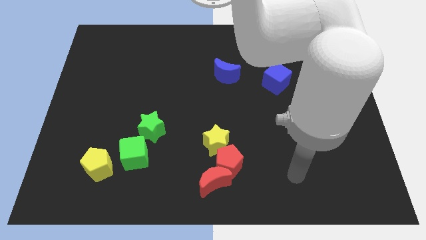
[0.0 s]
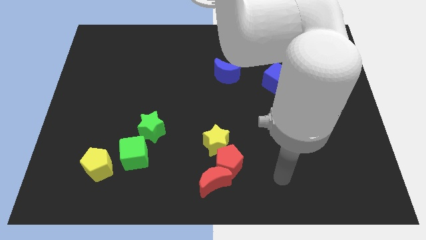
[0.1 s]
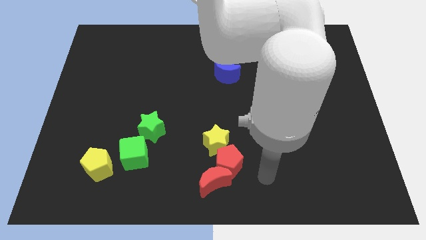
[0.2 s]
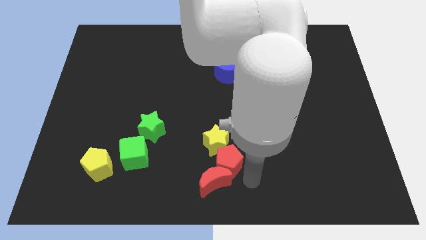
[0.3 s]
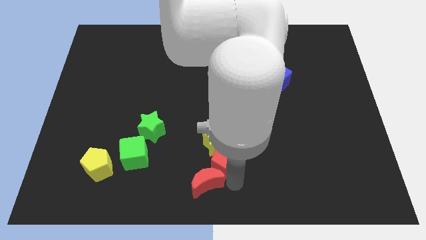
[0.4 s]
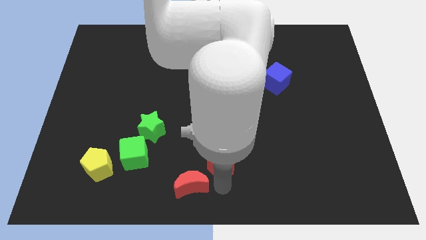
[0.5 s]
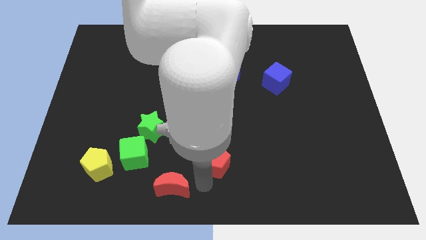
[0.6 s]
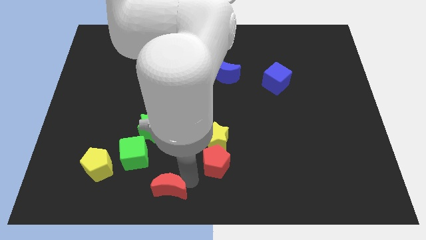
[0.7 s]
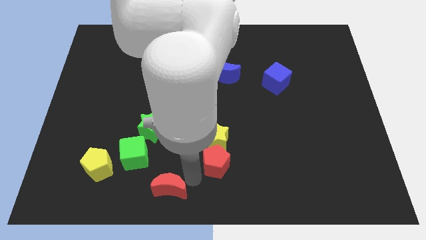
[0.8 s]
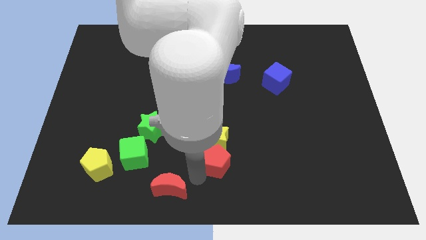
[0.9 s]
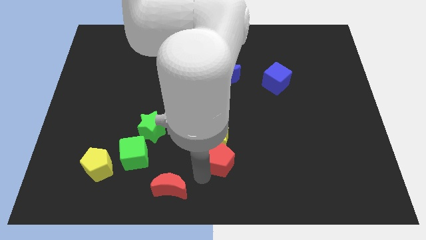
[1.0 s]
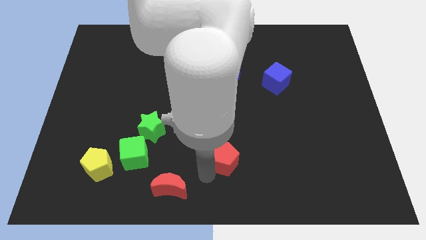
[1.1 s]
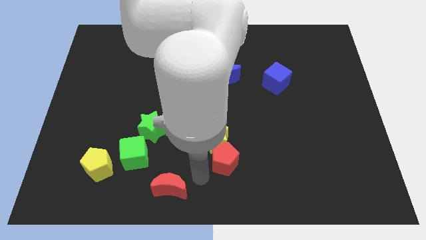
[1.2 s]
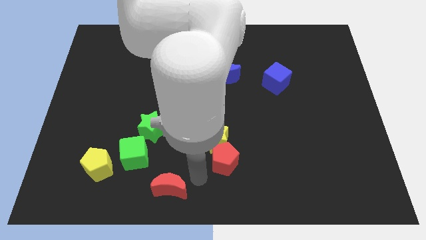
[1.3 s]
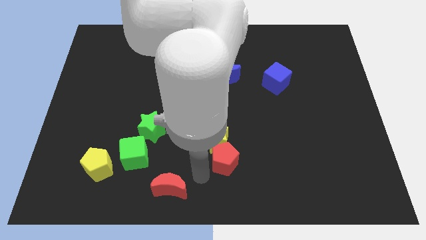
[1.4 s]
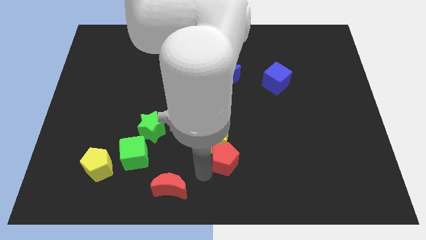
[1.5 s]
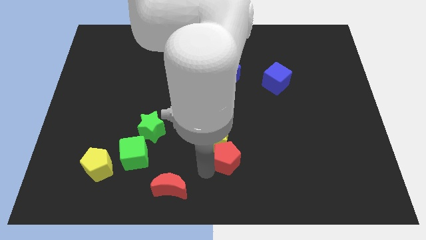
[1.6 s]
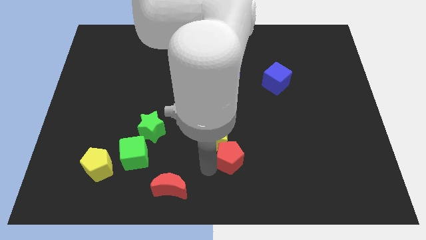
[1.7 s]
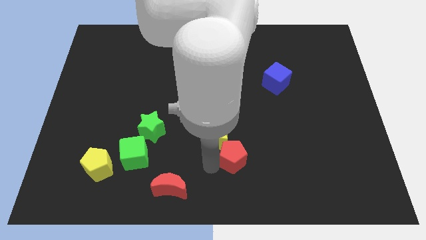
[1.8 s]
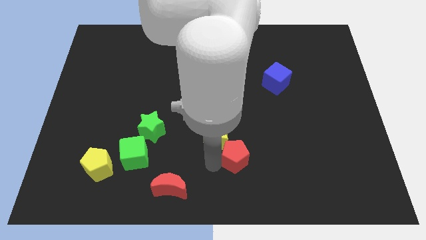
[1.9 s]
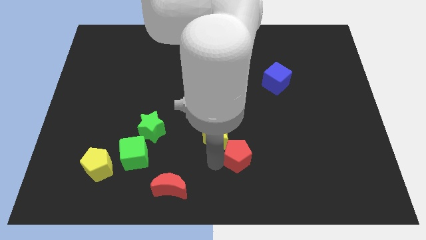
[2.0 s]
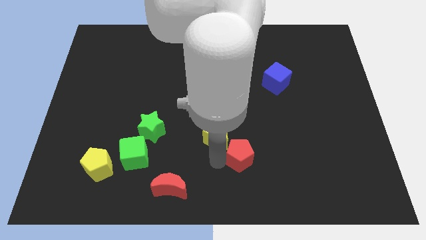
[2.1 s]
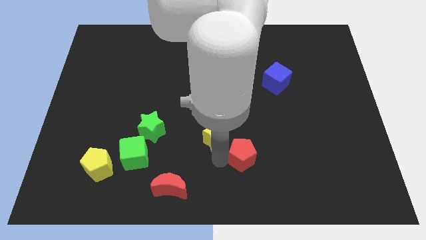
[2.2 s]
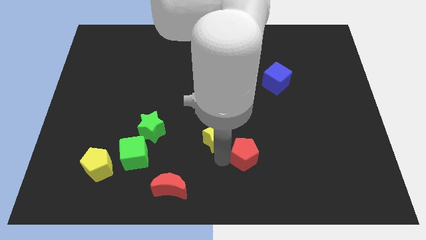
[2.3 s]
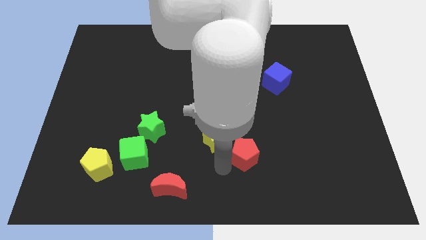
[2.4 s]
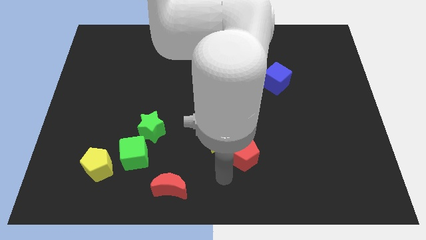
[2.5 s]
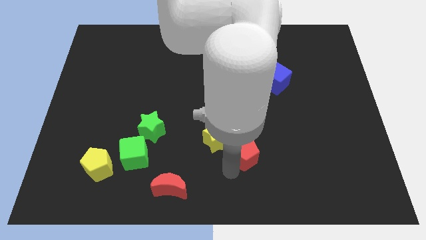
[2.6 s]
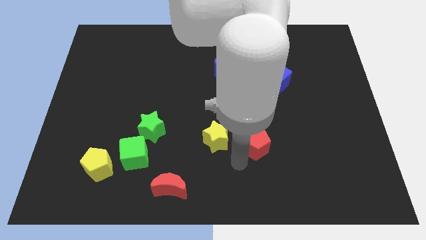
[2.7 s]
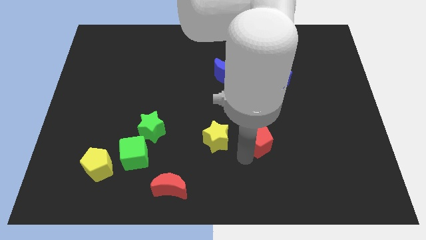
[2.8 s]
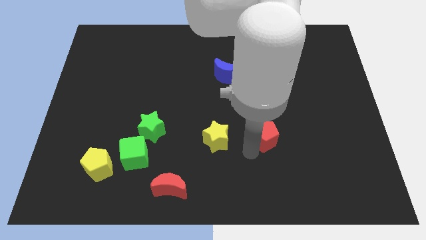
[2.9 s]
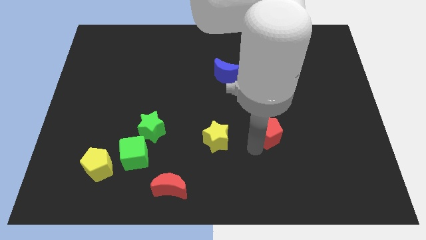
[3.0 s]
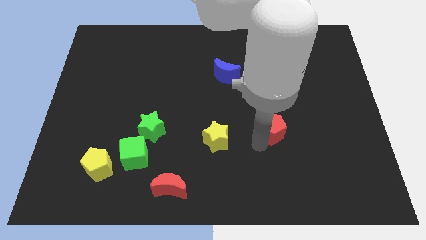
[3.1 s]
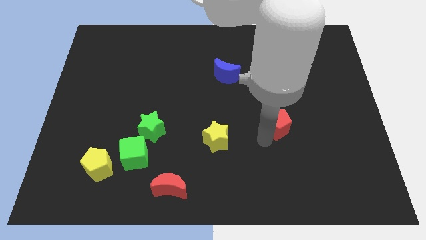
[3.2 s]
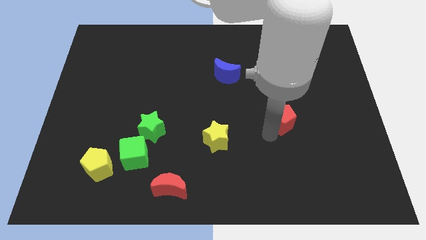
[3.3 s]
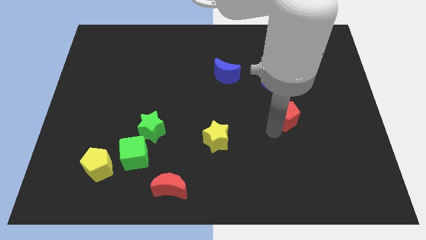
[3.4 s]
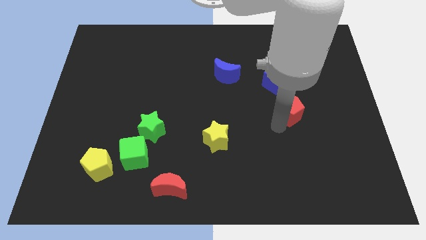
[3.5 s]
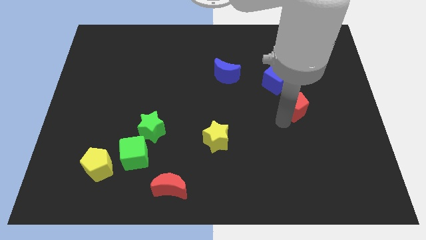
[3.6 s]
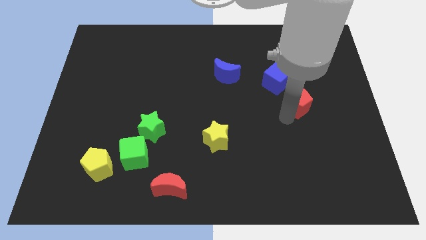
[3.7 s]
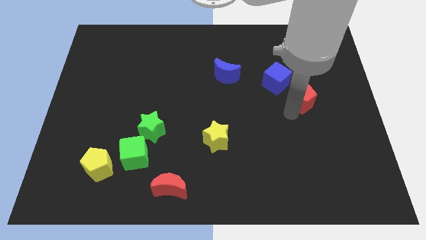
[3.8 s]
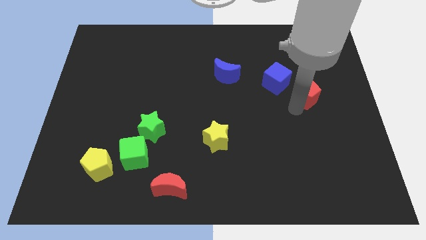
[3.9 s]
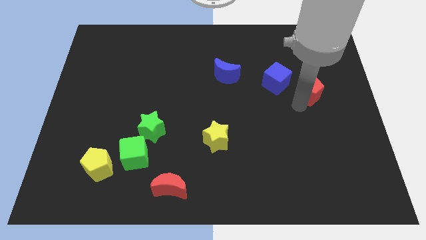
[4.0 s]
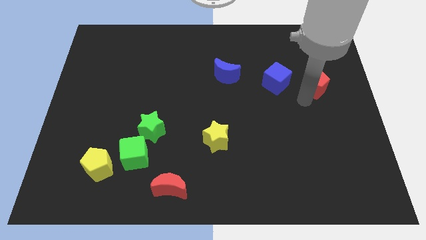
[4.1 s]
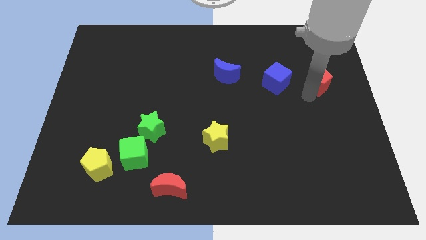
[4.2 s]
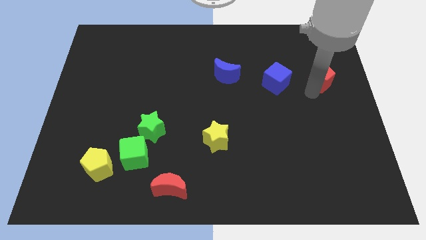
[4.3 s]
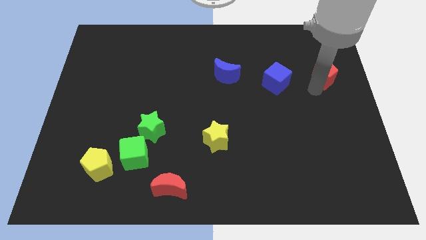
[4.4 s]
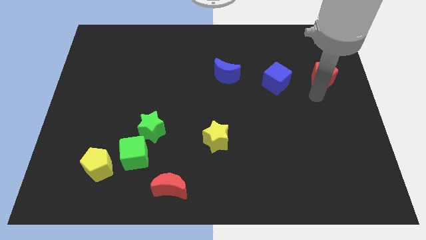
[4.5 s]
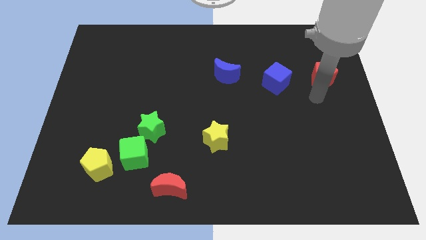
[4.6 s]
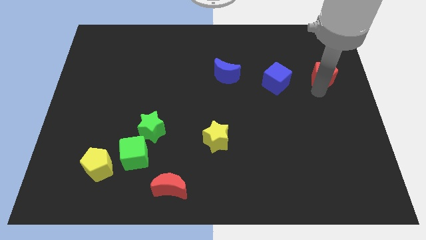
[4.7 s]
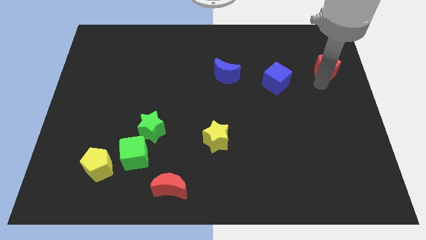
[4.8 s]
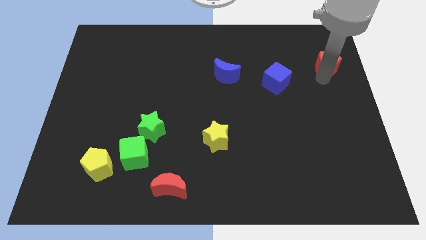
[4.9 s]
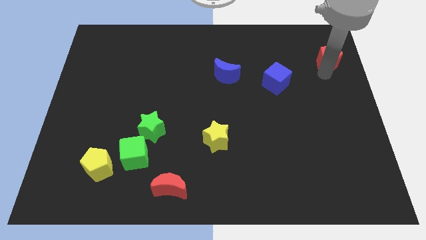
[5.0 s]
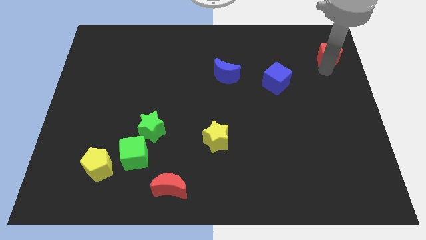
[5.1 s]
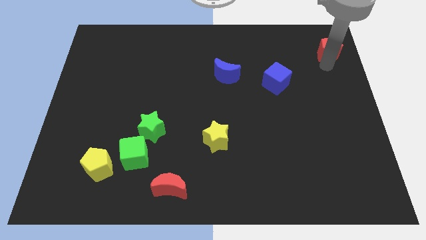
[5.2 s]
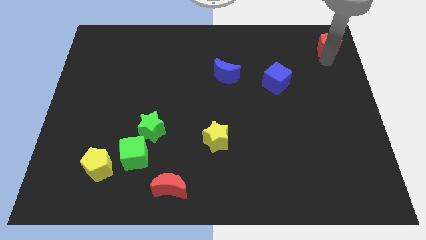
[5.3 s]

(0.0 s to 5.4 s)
slide the red pentagon to the top right corner

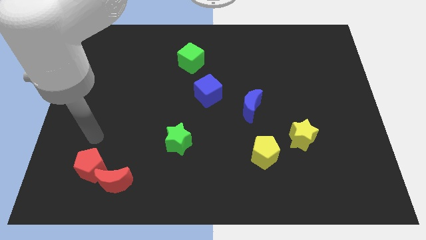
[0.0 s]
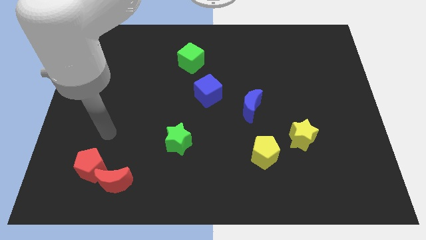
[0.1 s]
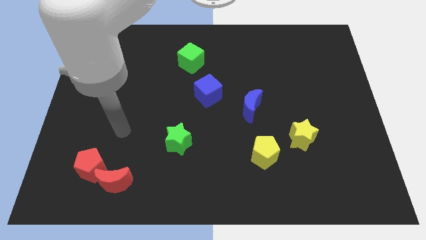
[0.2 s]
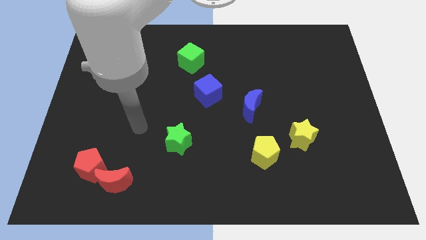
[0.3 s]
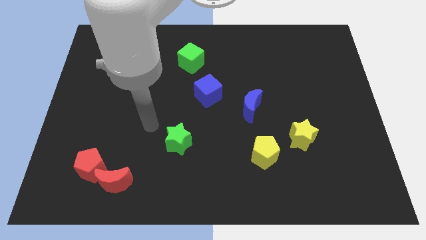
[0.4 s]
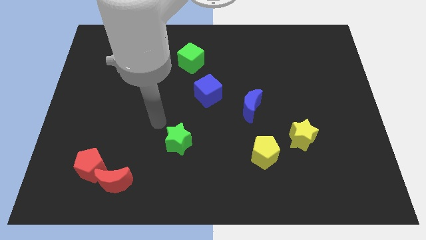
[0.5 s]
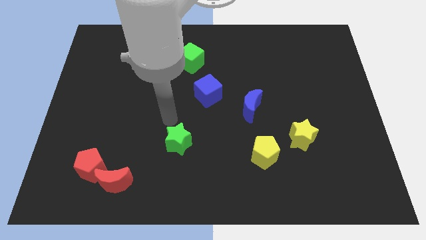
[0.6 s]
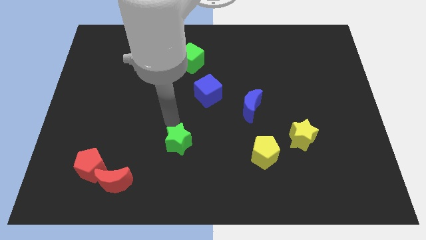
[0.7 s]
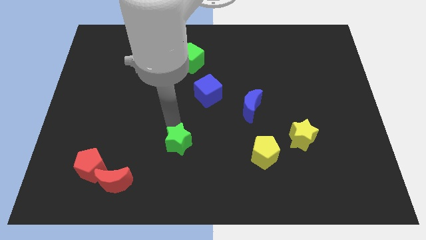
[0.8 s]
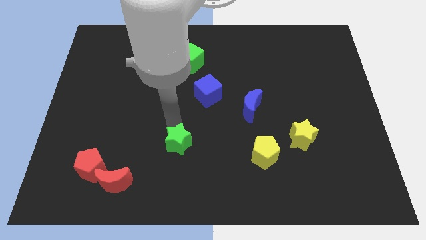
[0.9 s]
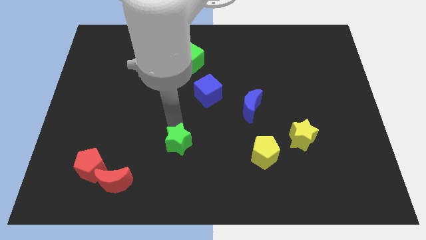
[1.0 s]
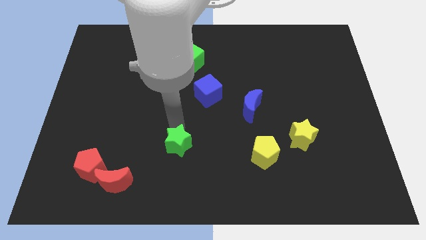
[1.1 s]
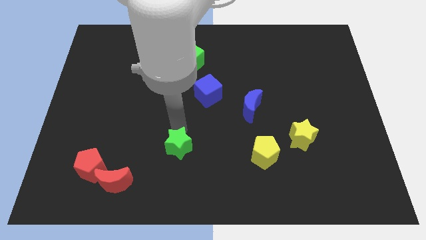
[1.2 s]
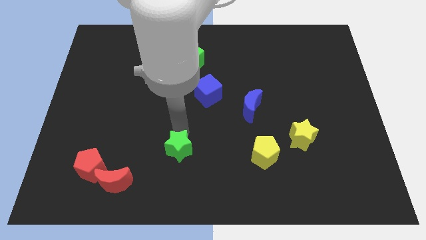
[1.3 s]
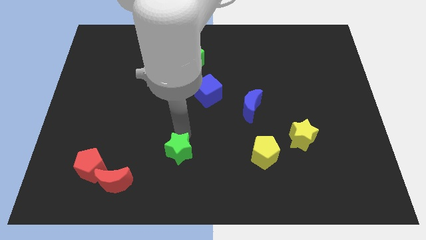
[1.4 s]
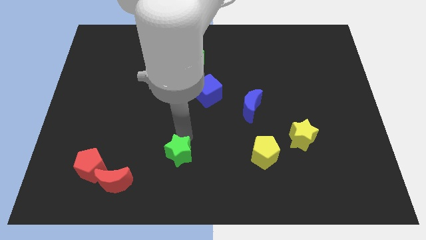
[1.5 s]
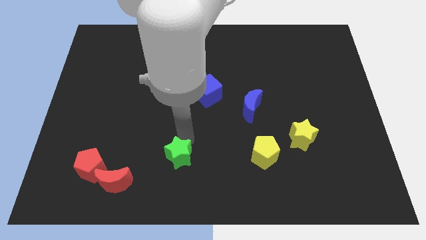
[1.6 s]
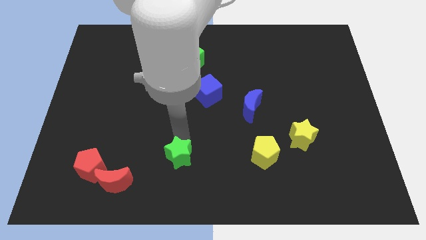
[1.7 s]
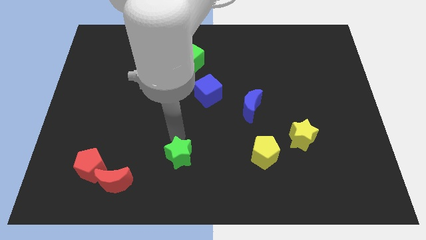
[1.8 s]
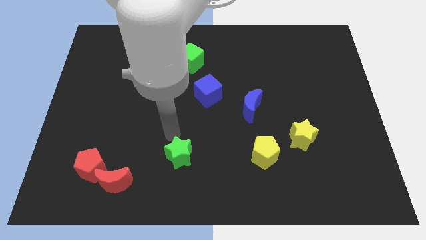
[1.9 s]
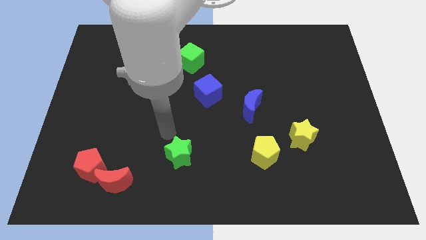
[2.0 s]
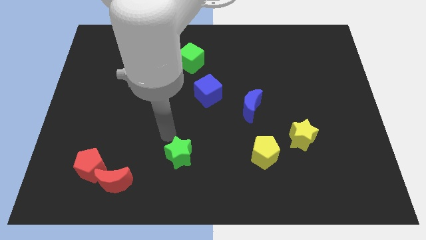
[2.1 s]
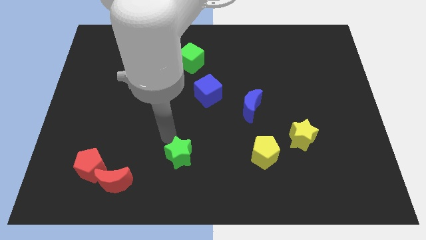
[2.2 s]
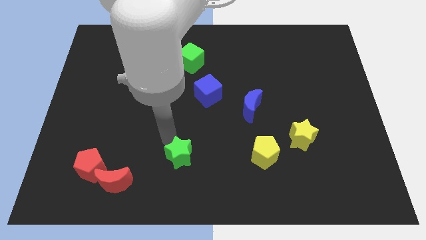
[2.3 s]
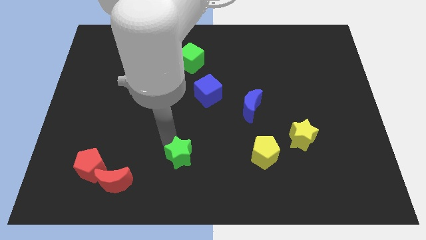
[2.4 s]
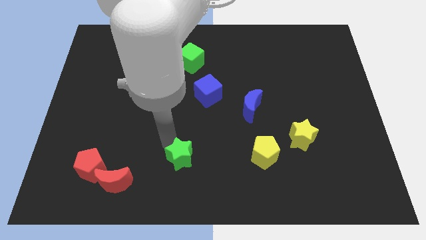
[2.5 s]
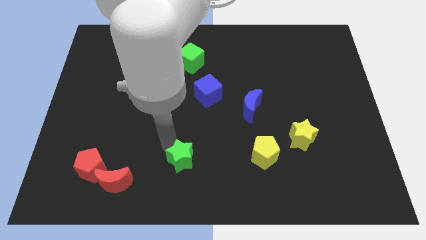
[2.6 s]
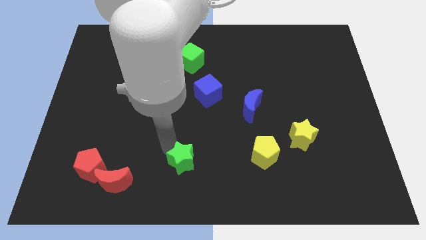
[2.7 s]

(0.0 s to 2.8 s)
put the green star to the bottom side
